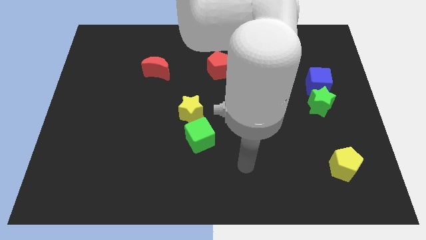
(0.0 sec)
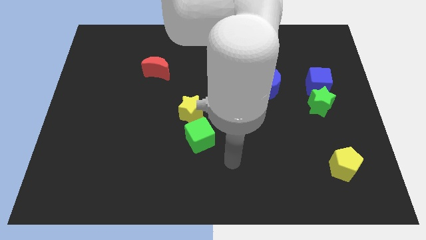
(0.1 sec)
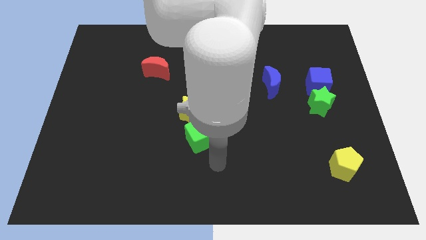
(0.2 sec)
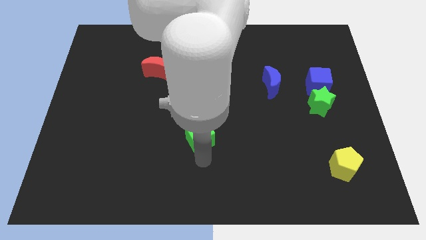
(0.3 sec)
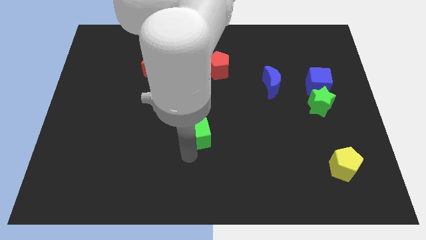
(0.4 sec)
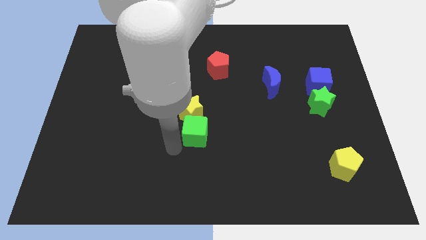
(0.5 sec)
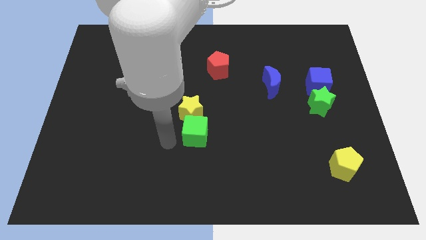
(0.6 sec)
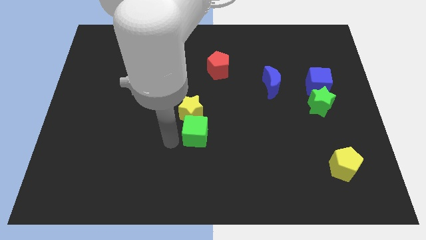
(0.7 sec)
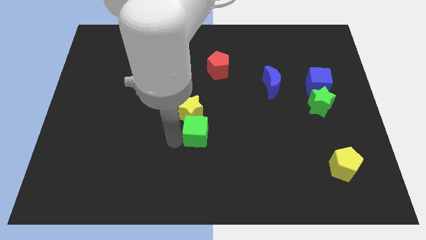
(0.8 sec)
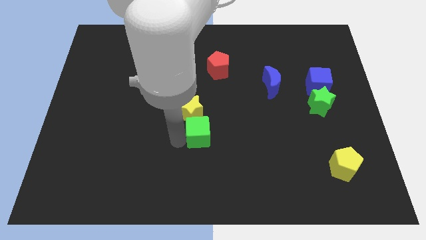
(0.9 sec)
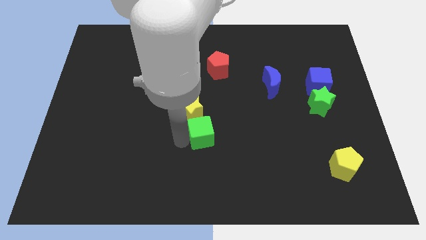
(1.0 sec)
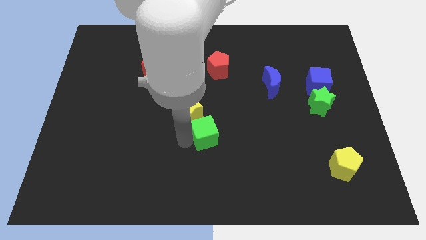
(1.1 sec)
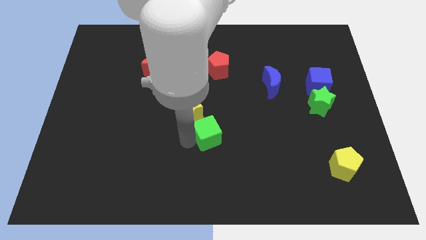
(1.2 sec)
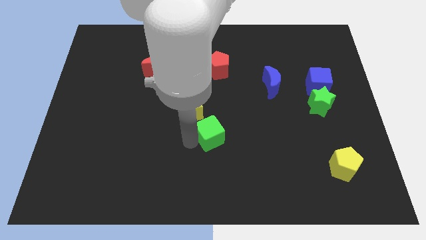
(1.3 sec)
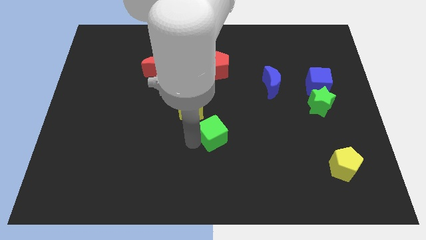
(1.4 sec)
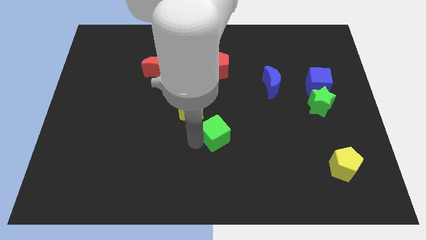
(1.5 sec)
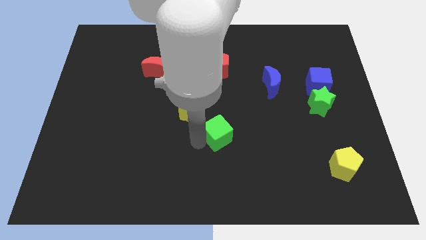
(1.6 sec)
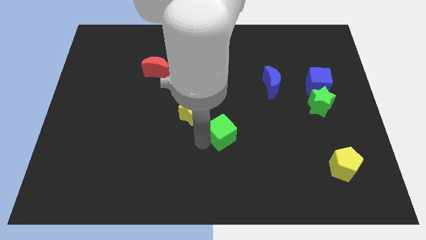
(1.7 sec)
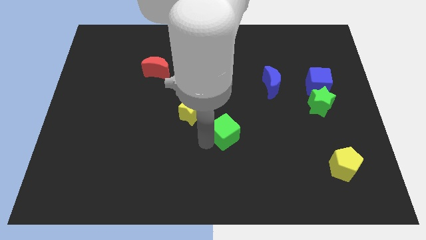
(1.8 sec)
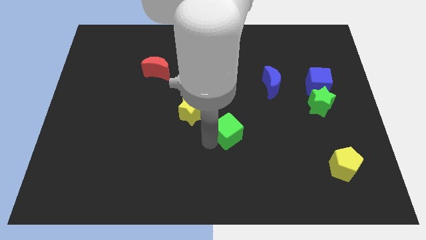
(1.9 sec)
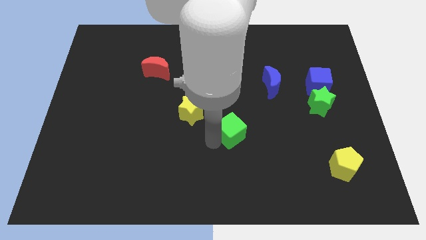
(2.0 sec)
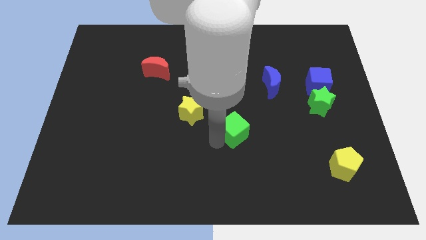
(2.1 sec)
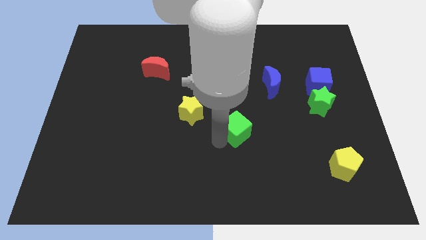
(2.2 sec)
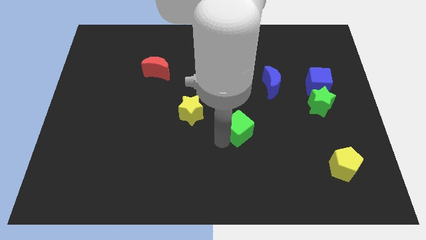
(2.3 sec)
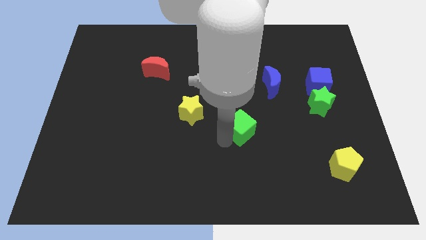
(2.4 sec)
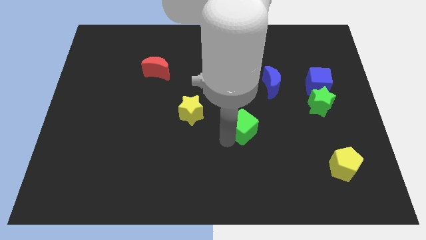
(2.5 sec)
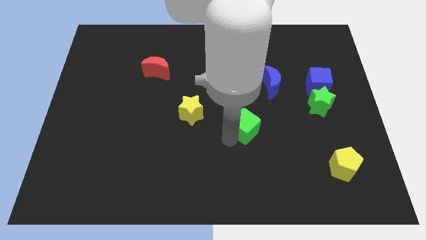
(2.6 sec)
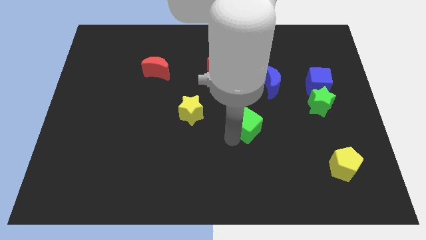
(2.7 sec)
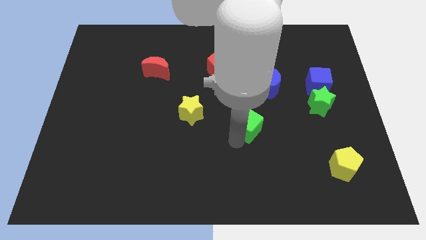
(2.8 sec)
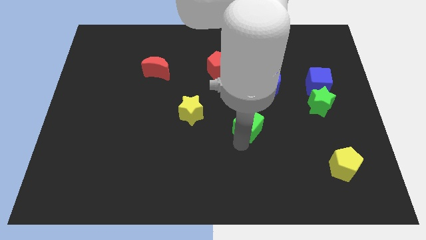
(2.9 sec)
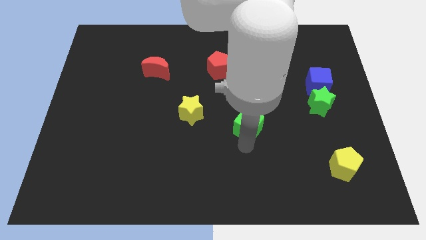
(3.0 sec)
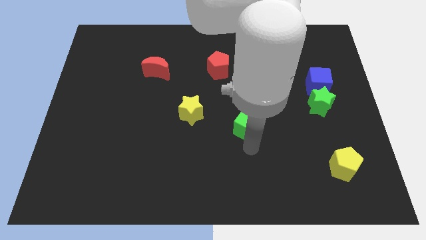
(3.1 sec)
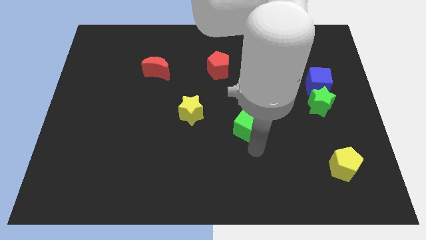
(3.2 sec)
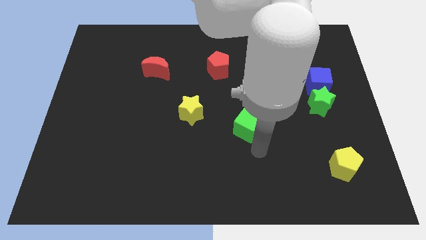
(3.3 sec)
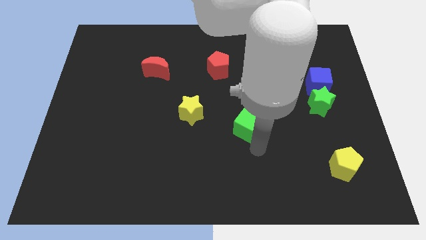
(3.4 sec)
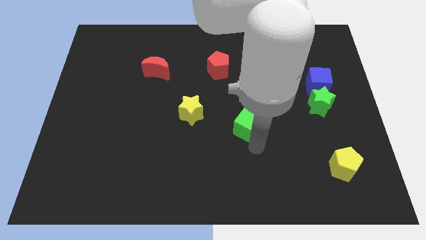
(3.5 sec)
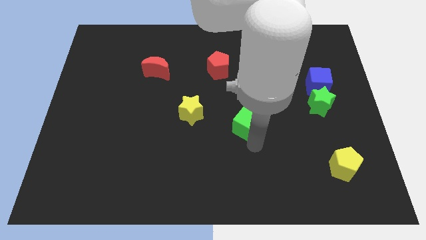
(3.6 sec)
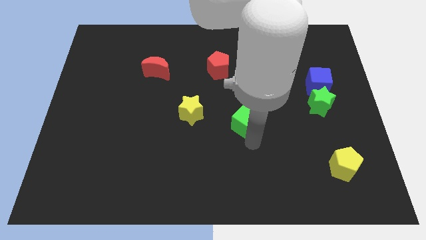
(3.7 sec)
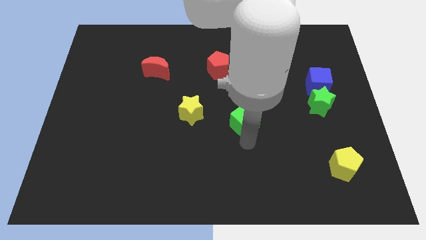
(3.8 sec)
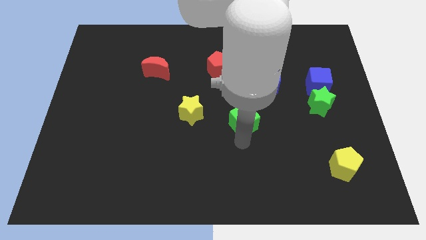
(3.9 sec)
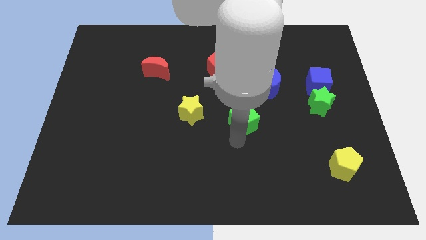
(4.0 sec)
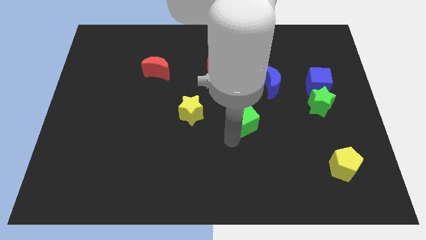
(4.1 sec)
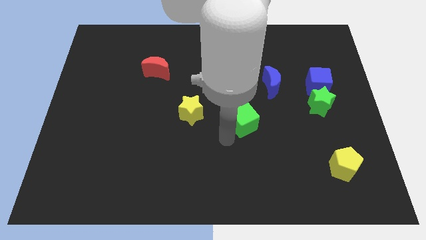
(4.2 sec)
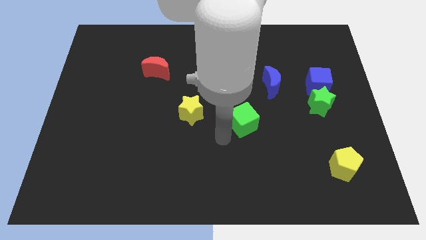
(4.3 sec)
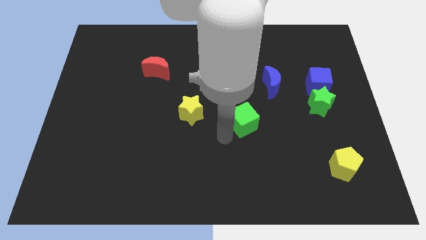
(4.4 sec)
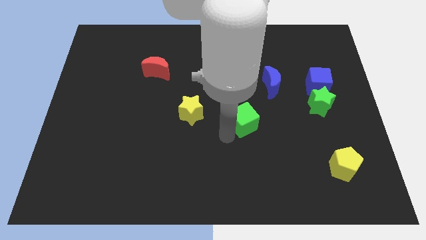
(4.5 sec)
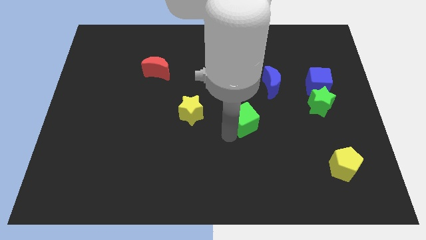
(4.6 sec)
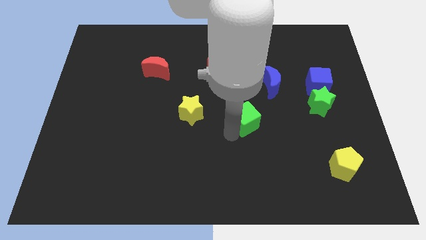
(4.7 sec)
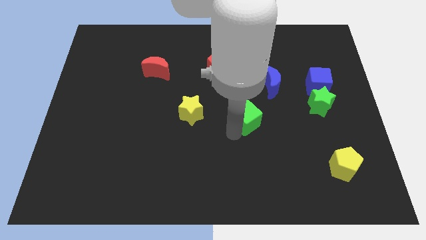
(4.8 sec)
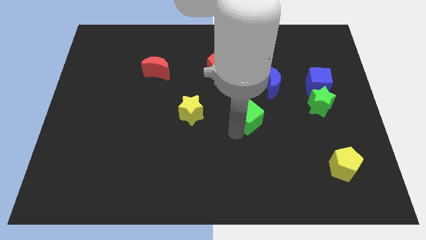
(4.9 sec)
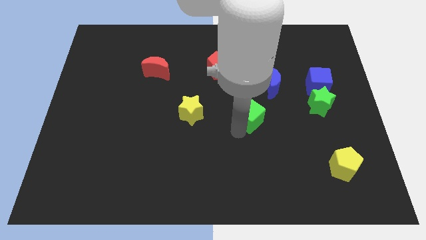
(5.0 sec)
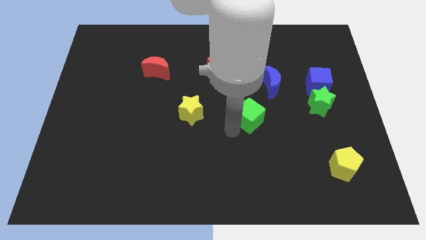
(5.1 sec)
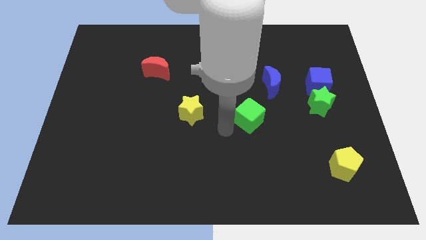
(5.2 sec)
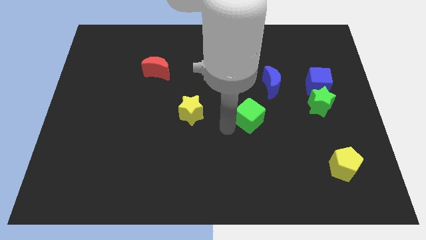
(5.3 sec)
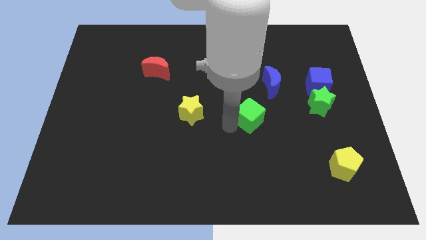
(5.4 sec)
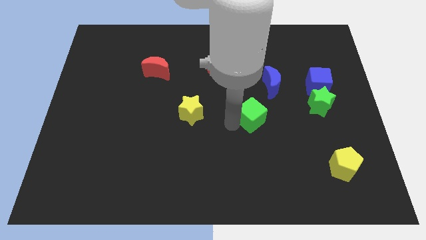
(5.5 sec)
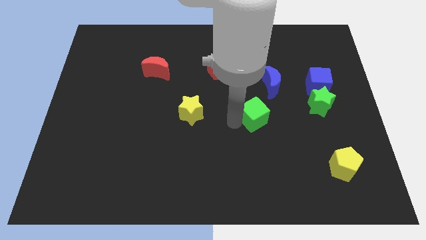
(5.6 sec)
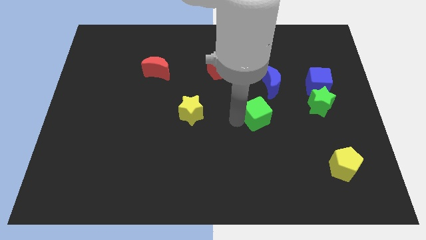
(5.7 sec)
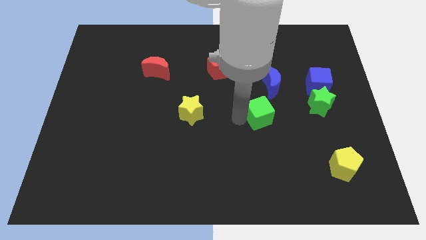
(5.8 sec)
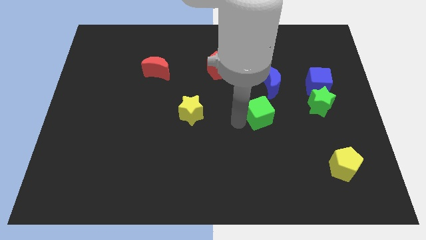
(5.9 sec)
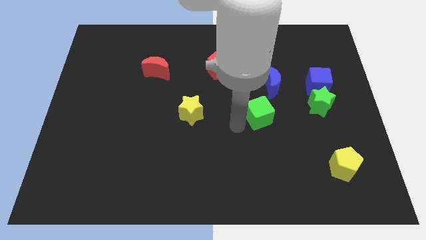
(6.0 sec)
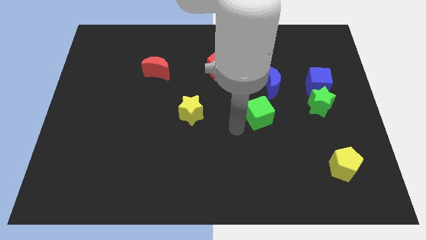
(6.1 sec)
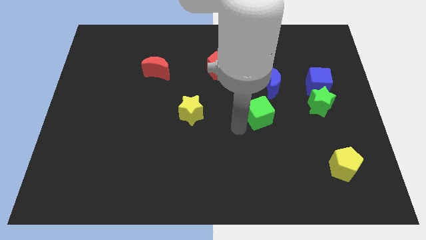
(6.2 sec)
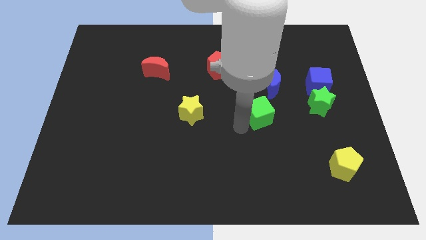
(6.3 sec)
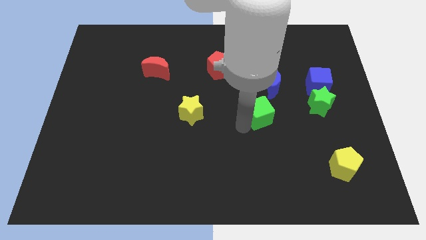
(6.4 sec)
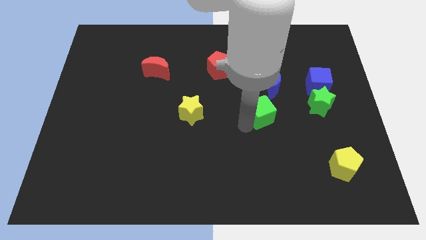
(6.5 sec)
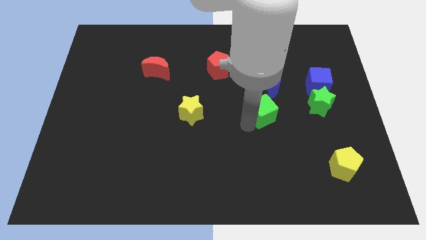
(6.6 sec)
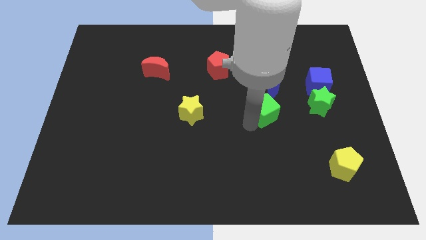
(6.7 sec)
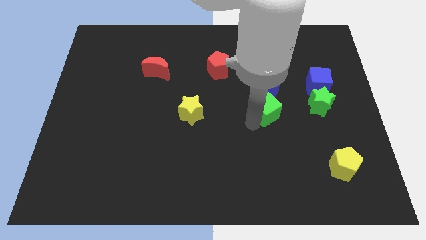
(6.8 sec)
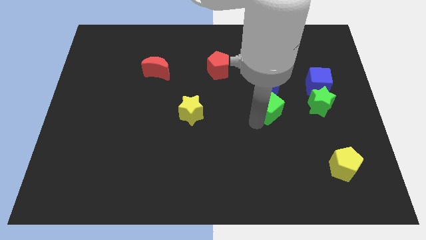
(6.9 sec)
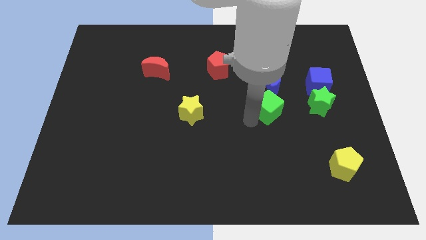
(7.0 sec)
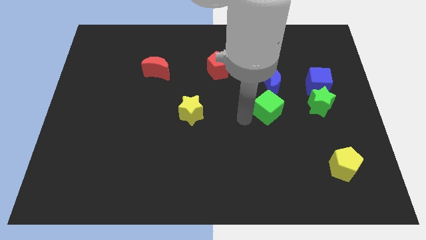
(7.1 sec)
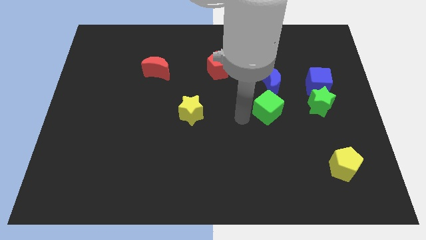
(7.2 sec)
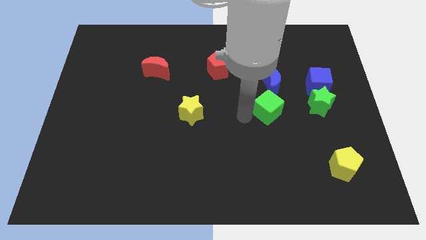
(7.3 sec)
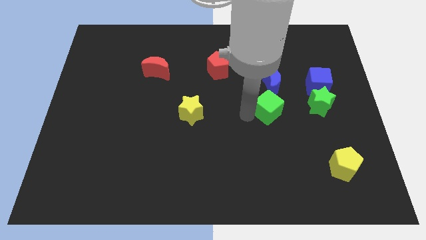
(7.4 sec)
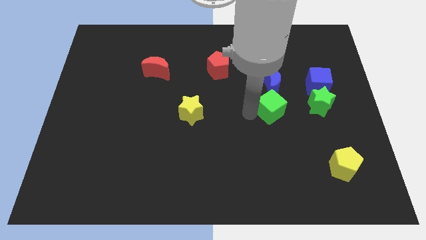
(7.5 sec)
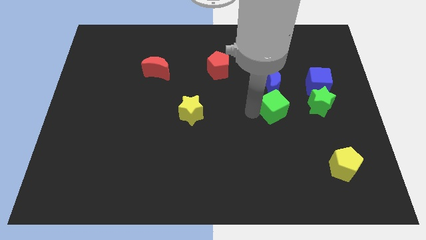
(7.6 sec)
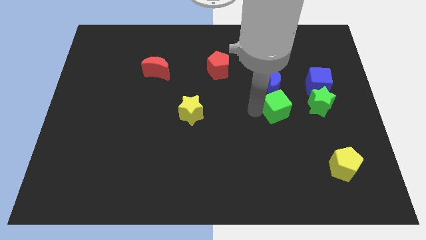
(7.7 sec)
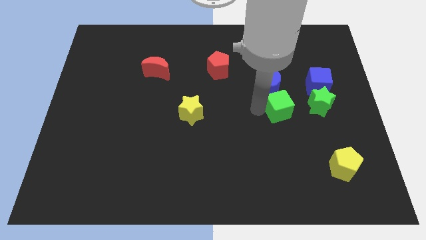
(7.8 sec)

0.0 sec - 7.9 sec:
put the green cube to the bottom right of the blue moon
